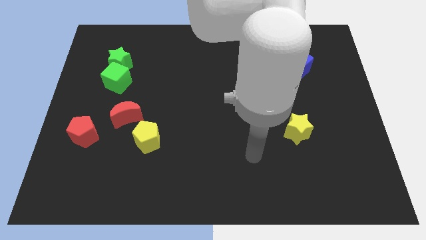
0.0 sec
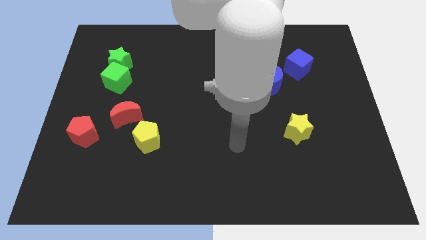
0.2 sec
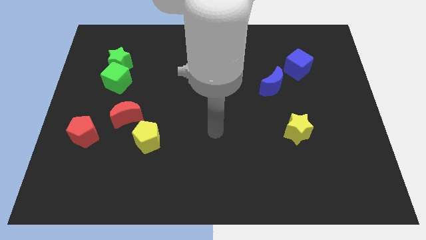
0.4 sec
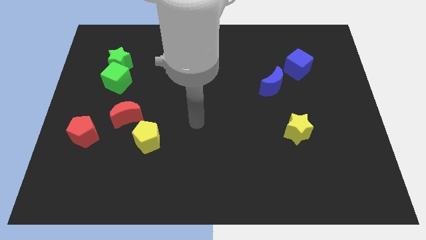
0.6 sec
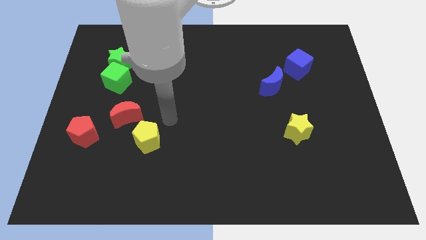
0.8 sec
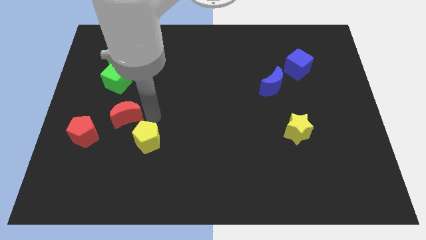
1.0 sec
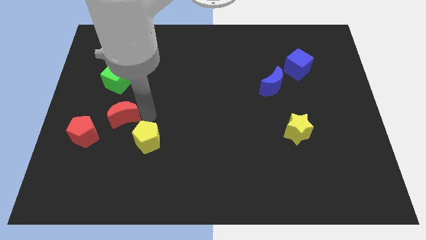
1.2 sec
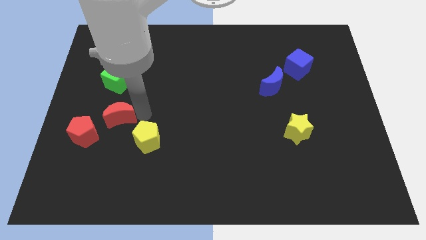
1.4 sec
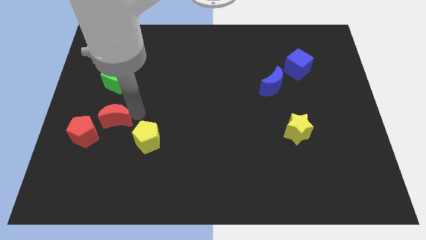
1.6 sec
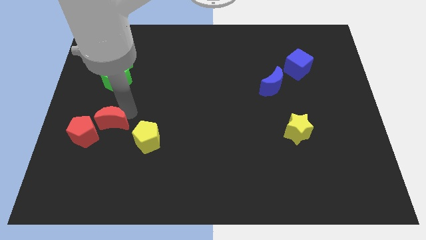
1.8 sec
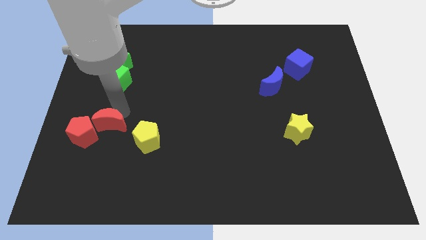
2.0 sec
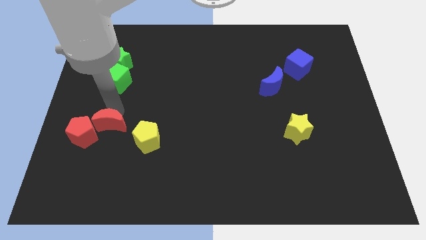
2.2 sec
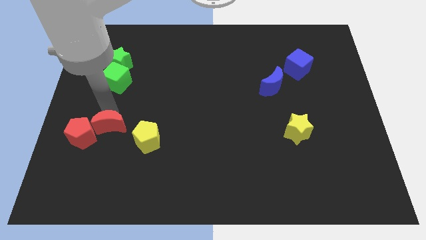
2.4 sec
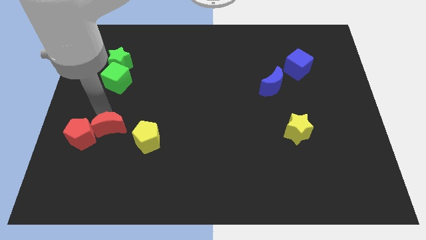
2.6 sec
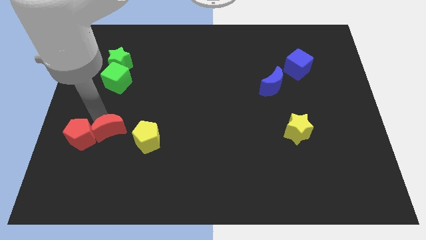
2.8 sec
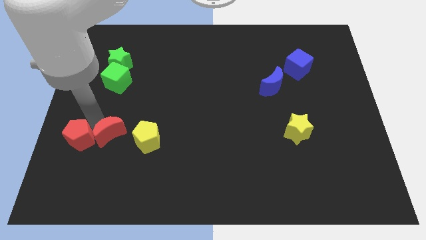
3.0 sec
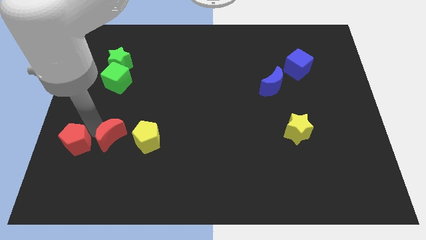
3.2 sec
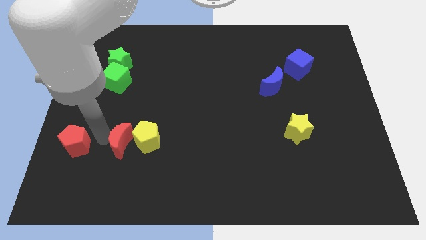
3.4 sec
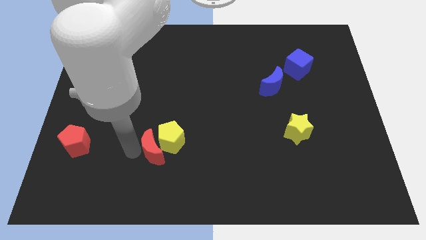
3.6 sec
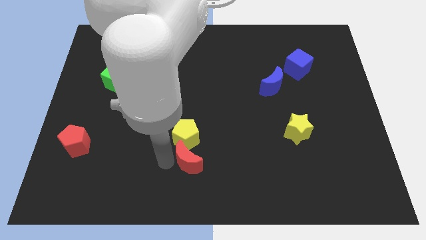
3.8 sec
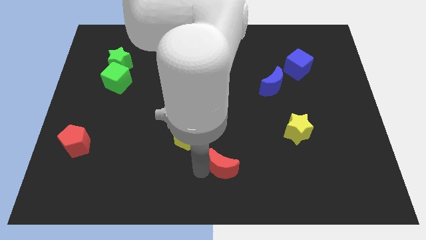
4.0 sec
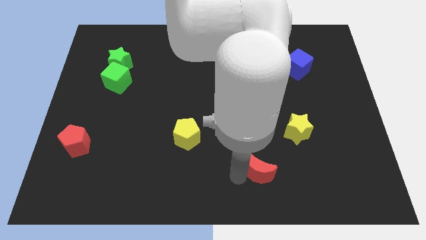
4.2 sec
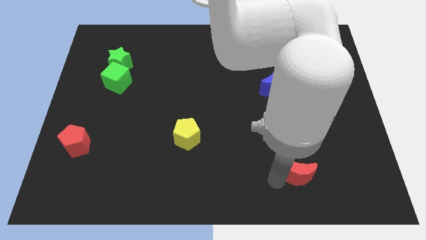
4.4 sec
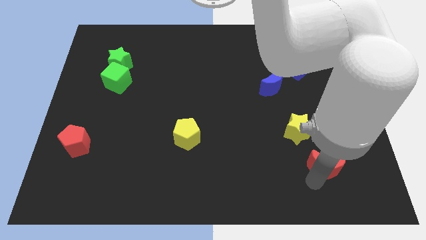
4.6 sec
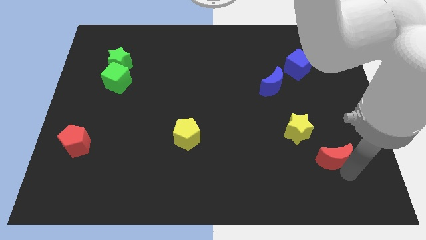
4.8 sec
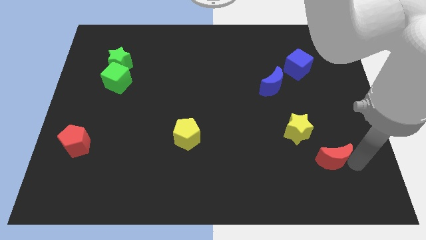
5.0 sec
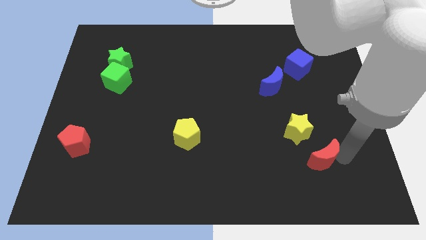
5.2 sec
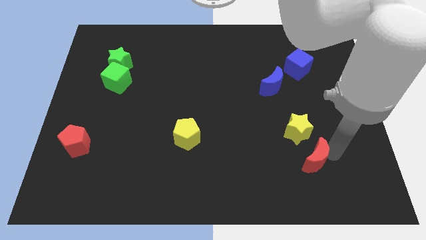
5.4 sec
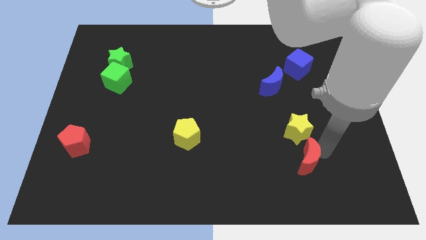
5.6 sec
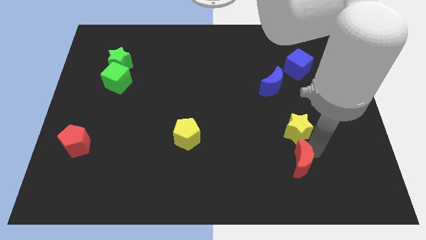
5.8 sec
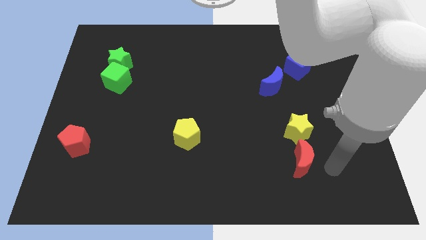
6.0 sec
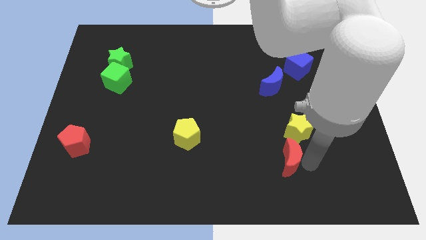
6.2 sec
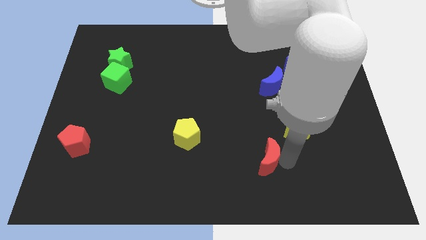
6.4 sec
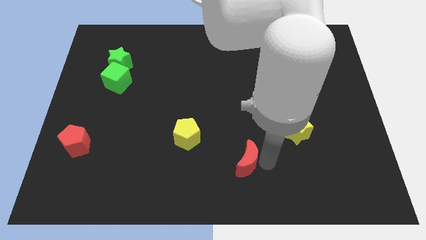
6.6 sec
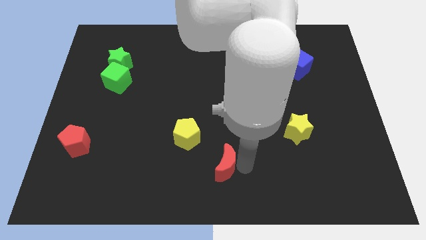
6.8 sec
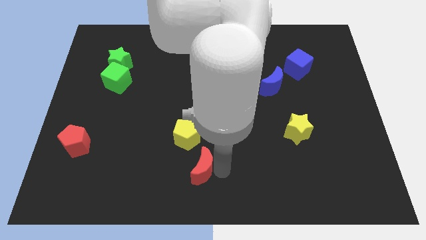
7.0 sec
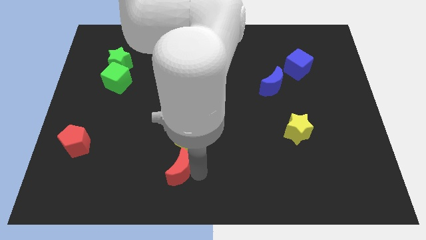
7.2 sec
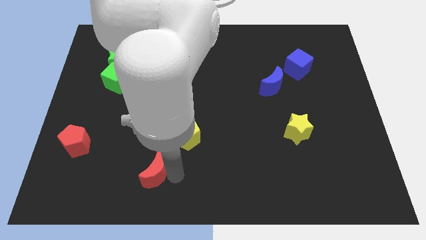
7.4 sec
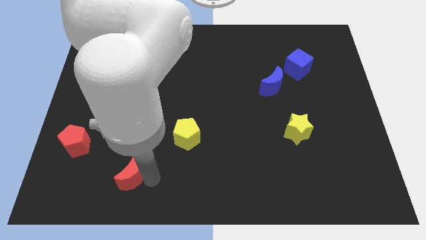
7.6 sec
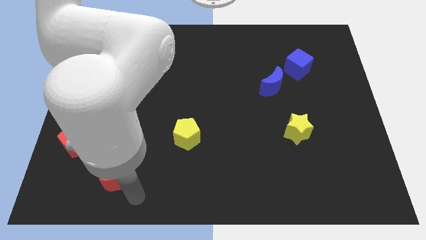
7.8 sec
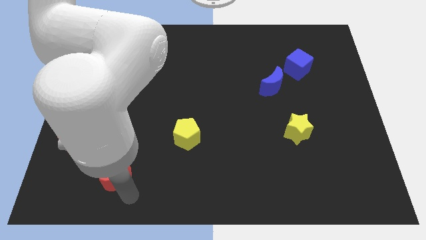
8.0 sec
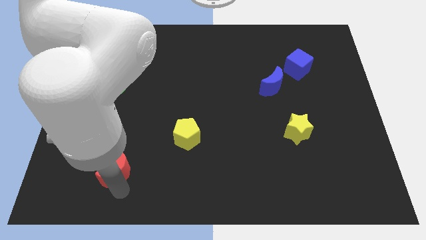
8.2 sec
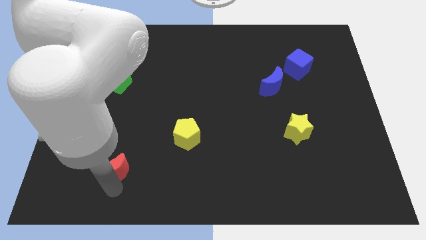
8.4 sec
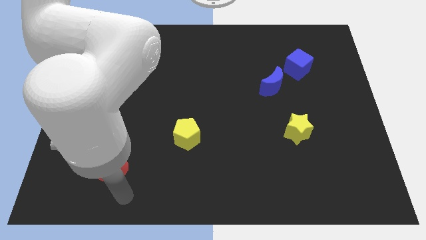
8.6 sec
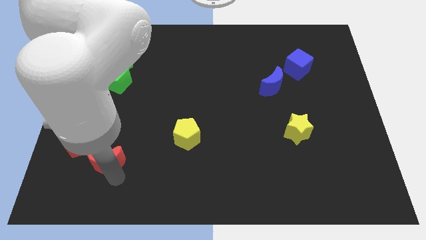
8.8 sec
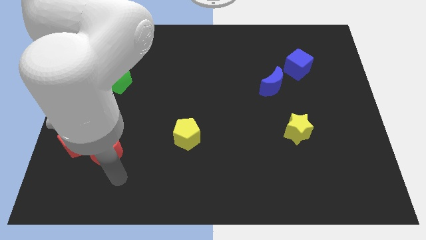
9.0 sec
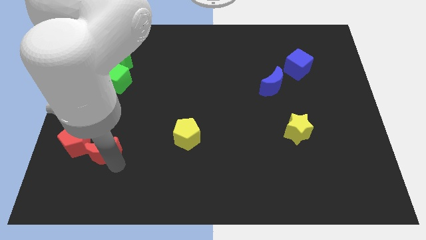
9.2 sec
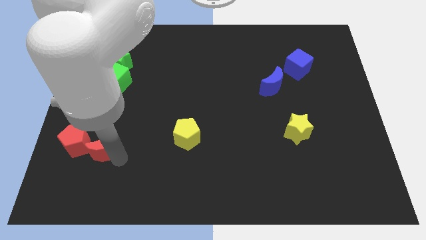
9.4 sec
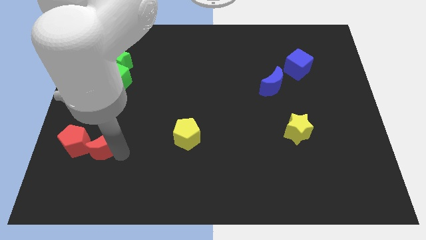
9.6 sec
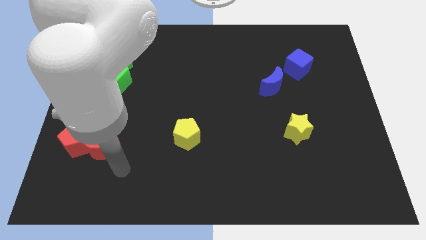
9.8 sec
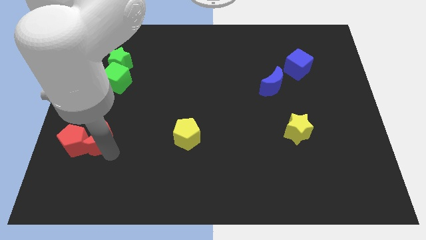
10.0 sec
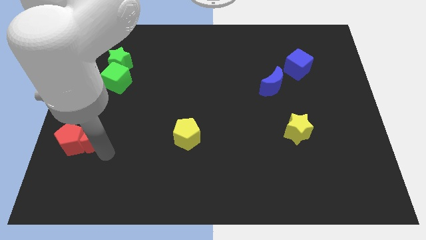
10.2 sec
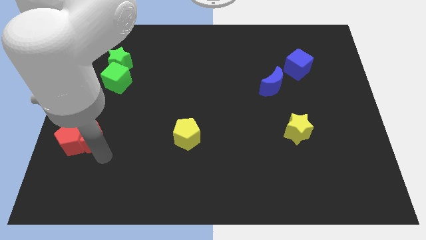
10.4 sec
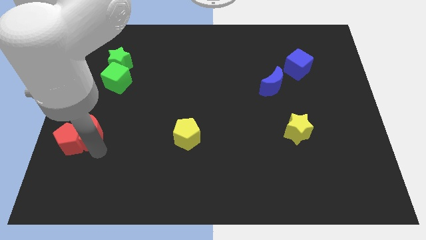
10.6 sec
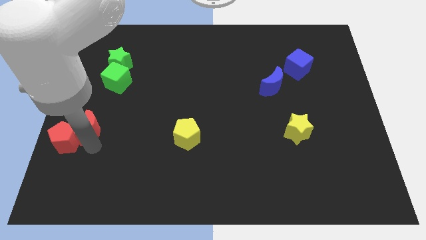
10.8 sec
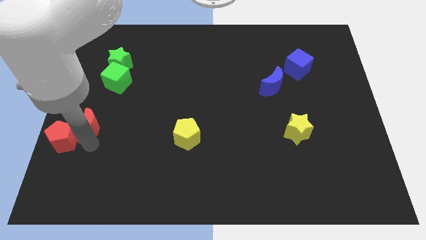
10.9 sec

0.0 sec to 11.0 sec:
move the red moon to the center left

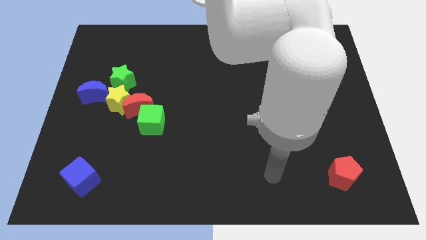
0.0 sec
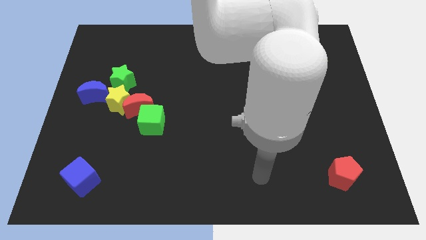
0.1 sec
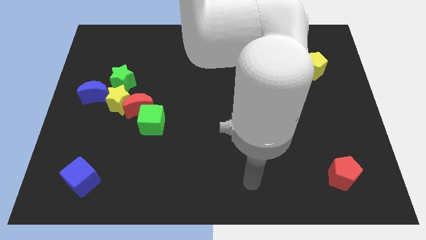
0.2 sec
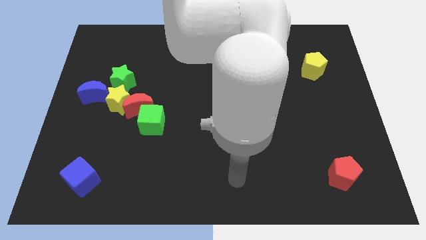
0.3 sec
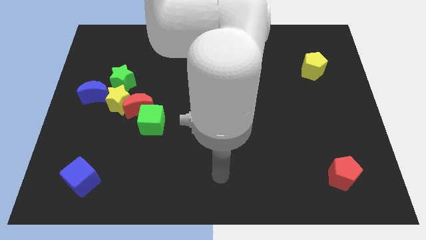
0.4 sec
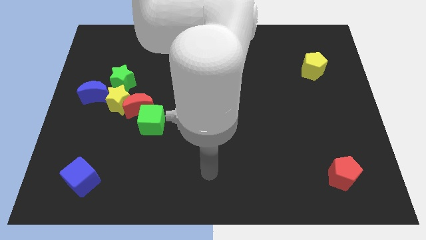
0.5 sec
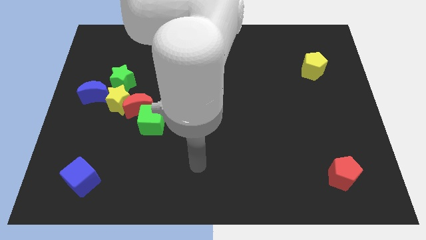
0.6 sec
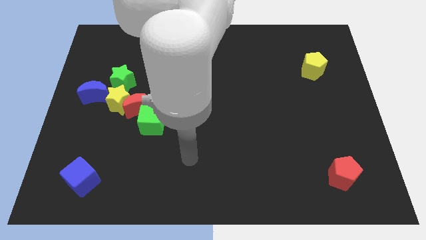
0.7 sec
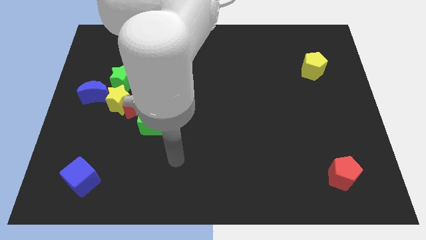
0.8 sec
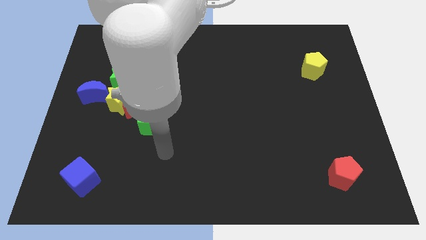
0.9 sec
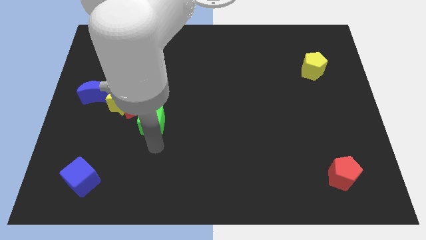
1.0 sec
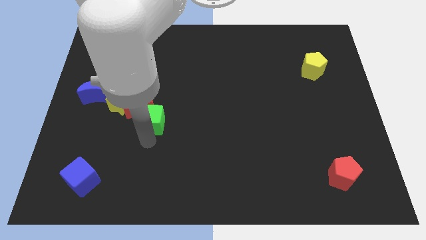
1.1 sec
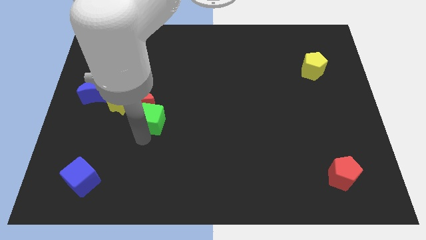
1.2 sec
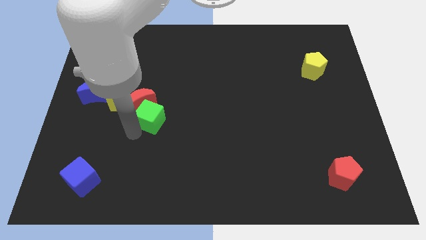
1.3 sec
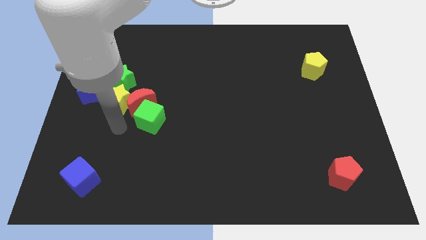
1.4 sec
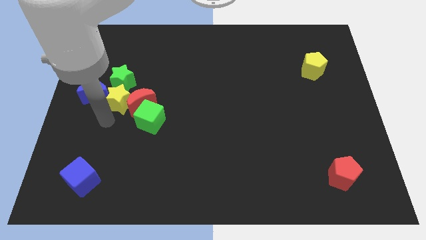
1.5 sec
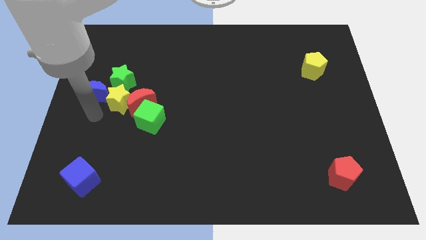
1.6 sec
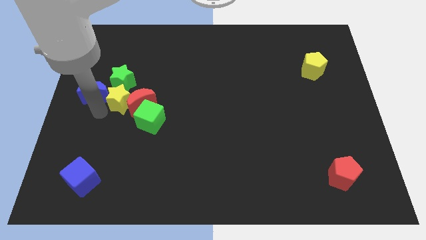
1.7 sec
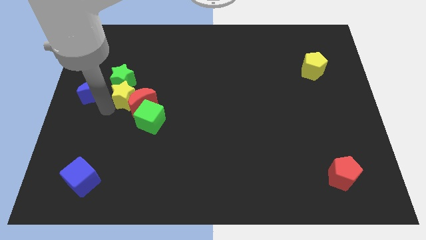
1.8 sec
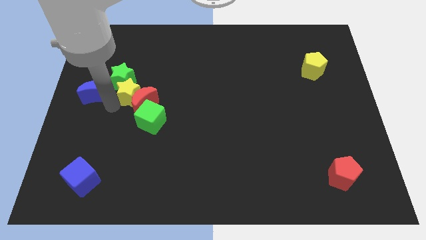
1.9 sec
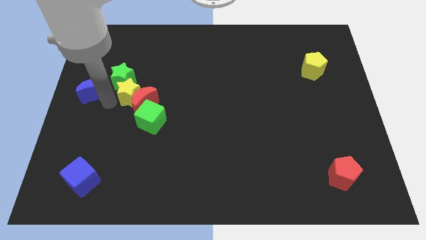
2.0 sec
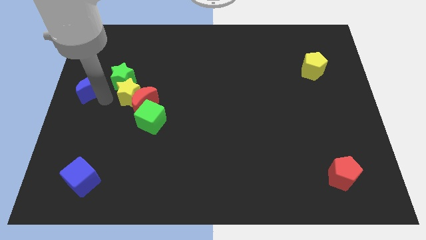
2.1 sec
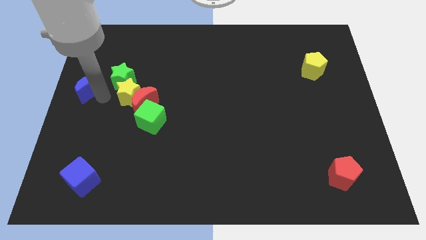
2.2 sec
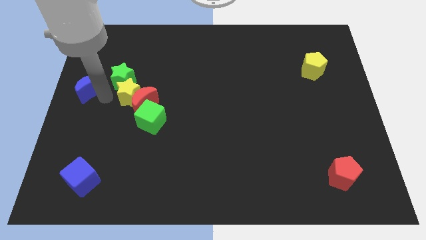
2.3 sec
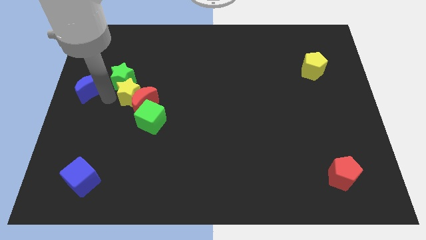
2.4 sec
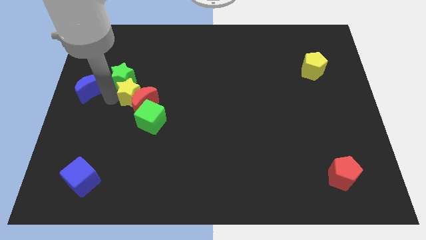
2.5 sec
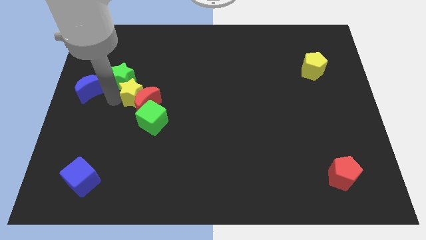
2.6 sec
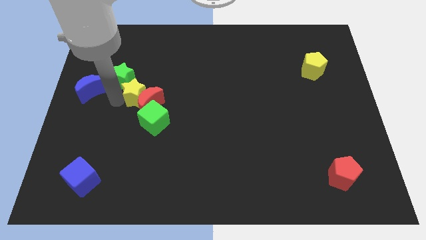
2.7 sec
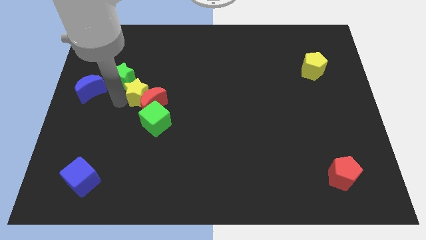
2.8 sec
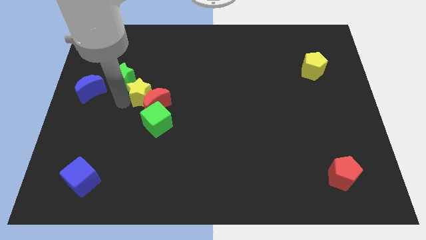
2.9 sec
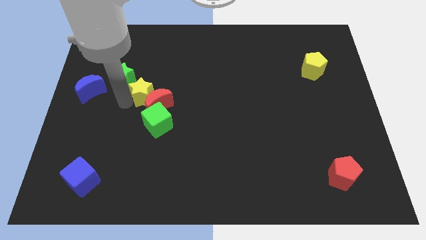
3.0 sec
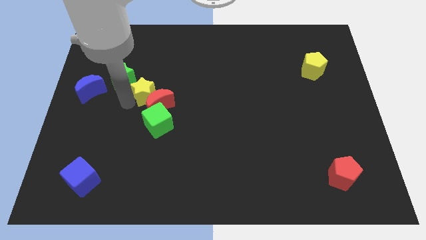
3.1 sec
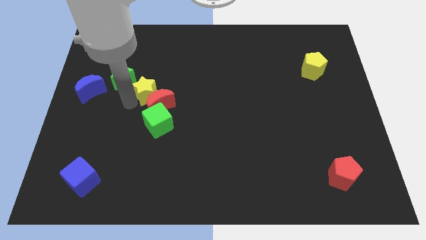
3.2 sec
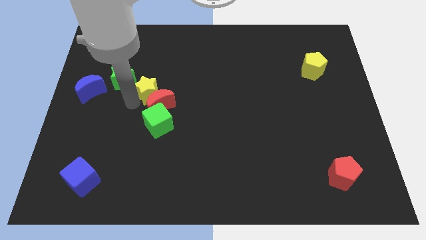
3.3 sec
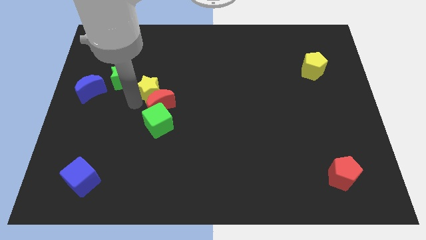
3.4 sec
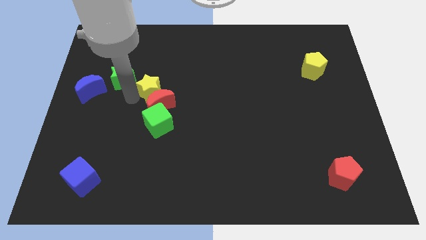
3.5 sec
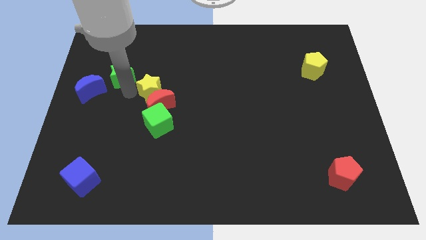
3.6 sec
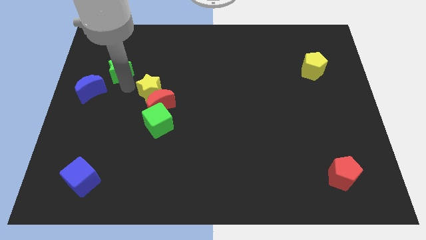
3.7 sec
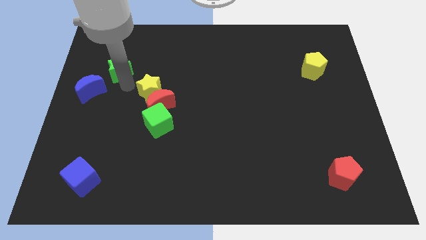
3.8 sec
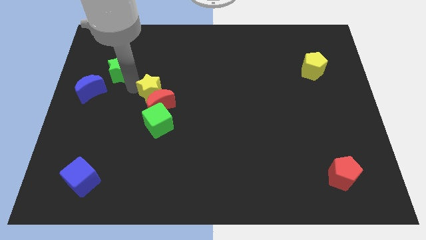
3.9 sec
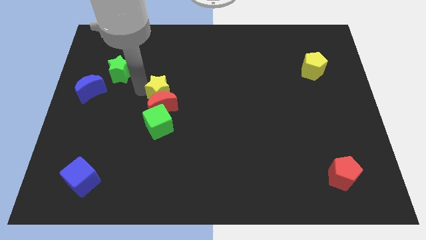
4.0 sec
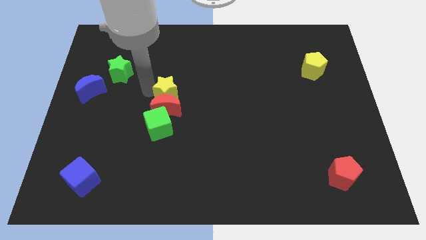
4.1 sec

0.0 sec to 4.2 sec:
slide the yellow star to the middle
